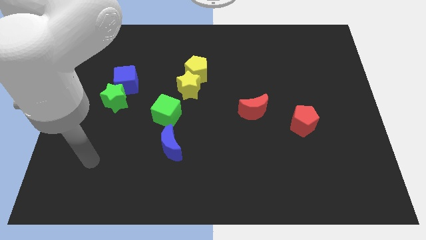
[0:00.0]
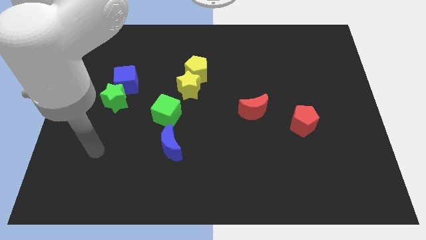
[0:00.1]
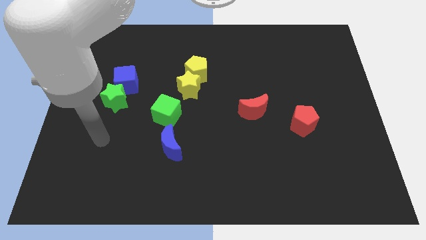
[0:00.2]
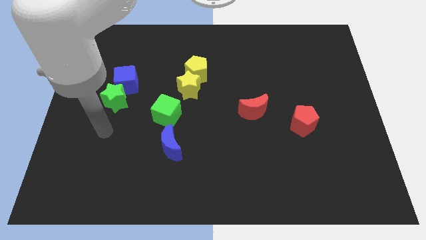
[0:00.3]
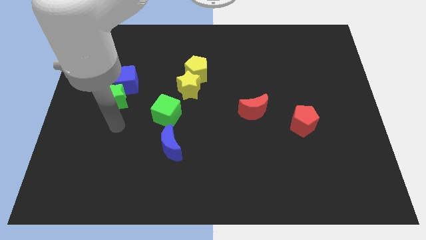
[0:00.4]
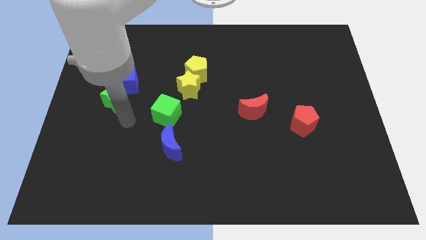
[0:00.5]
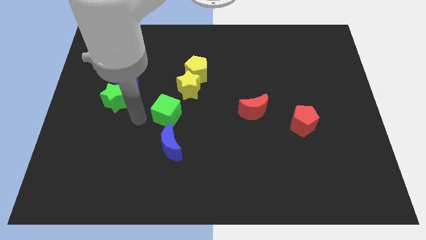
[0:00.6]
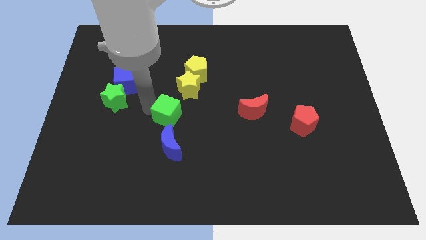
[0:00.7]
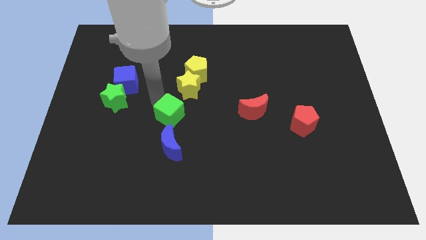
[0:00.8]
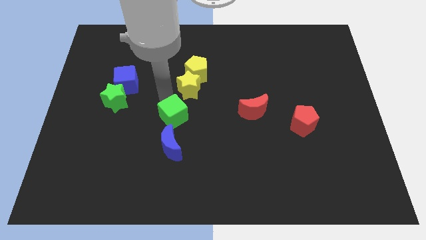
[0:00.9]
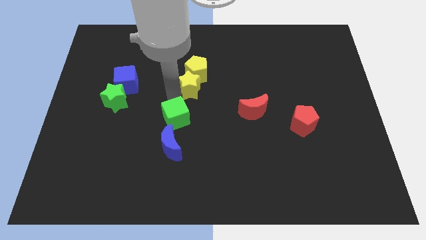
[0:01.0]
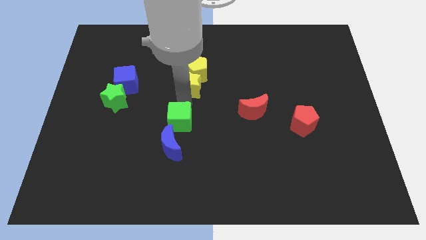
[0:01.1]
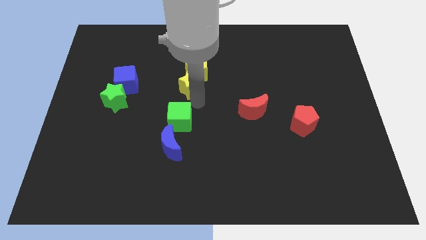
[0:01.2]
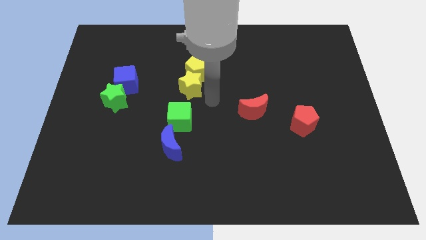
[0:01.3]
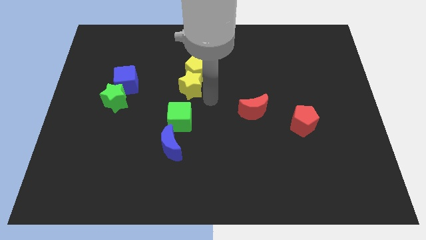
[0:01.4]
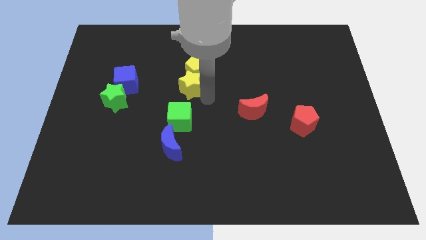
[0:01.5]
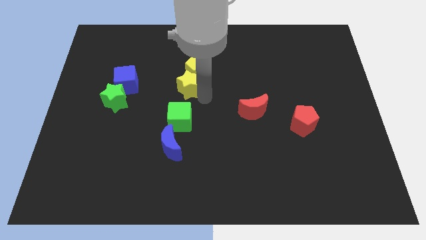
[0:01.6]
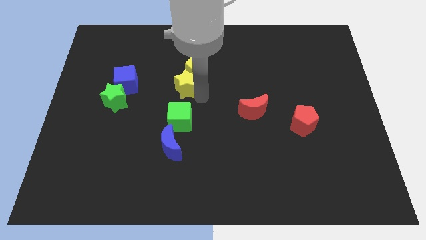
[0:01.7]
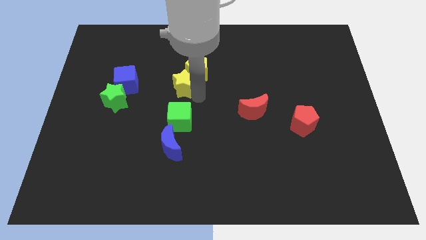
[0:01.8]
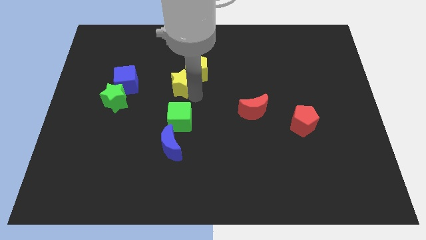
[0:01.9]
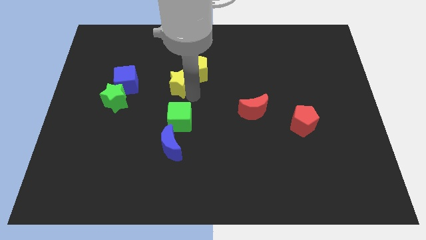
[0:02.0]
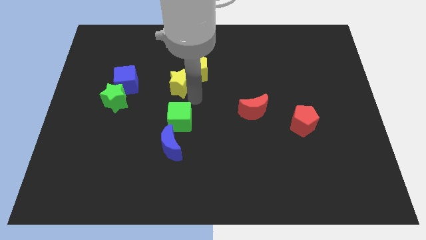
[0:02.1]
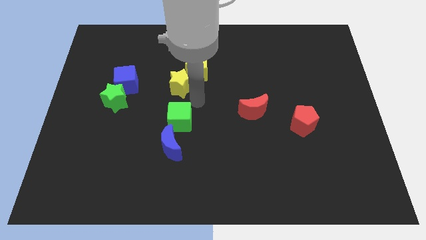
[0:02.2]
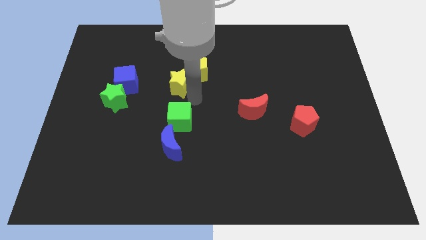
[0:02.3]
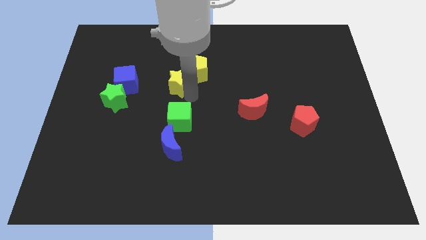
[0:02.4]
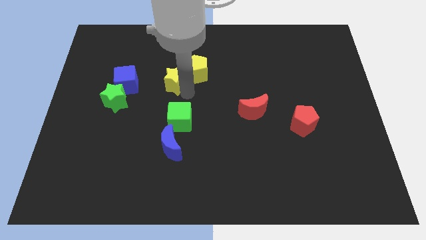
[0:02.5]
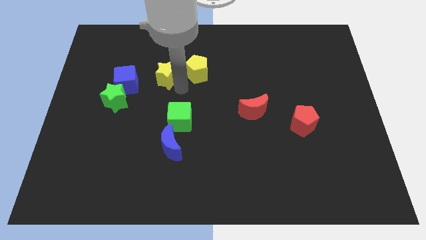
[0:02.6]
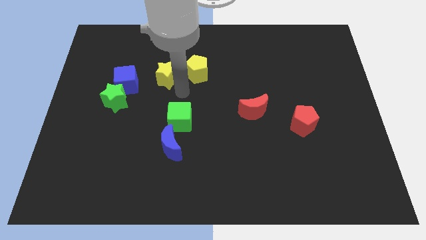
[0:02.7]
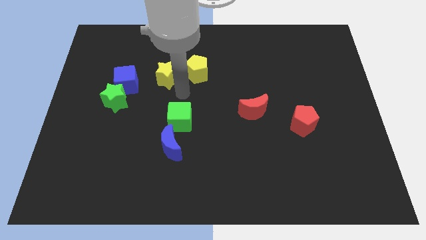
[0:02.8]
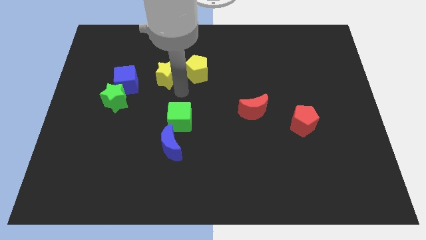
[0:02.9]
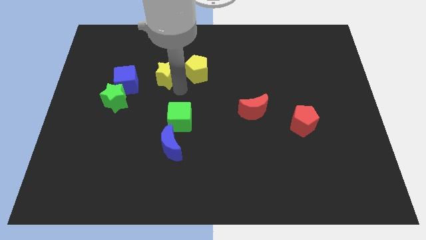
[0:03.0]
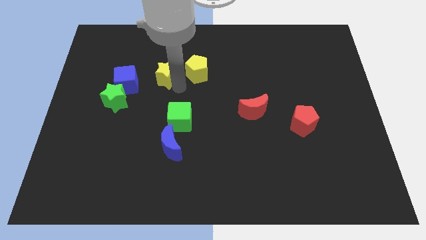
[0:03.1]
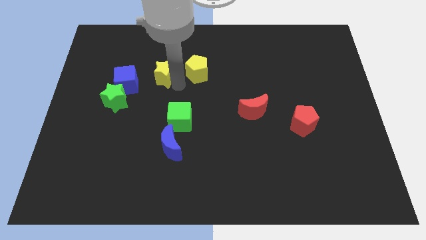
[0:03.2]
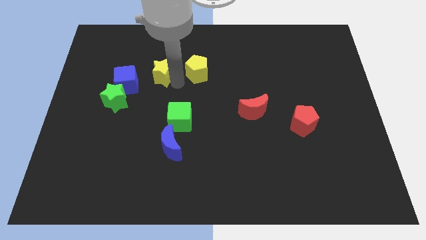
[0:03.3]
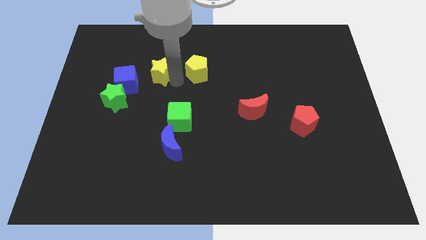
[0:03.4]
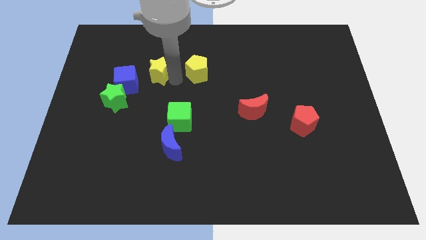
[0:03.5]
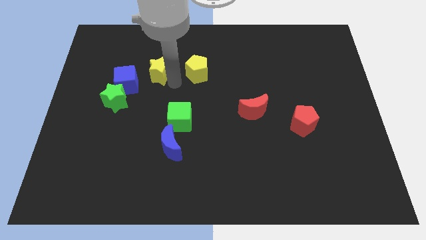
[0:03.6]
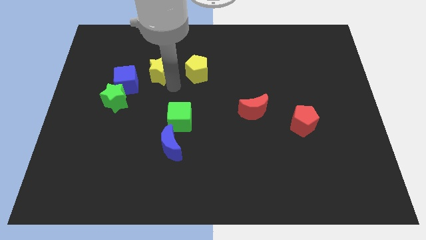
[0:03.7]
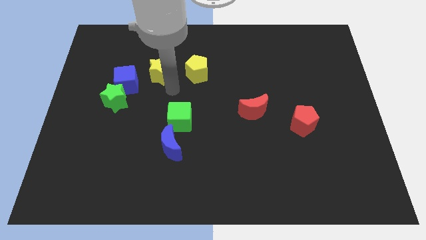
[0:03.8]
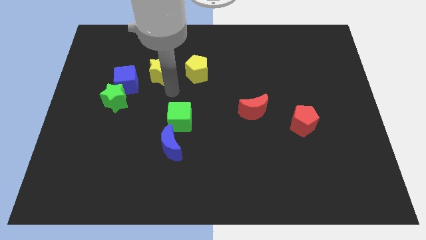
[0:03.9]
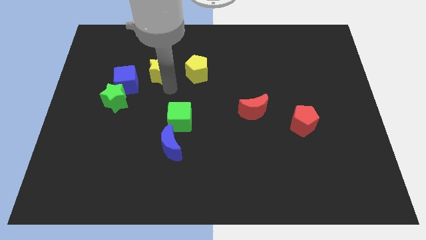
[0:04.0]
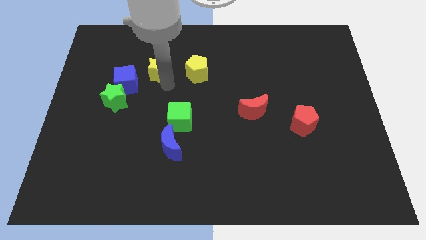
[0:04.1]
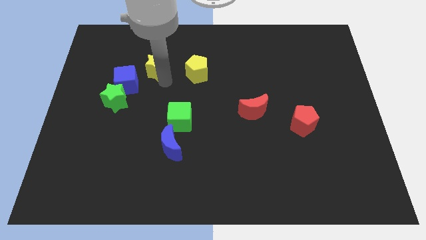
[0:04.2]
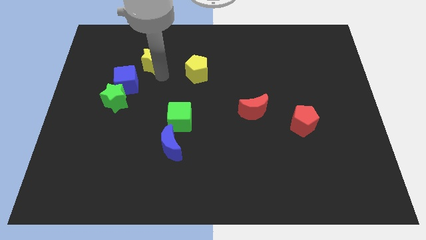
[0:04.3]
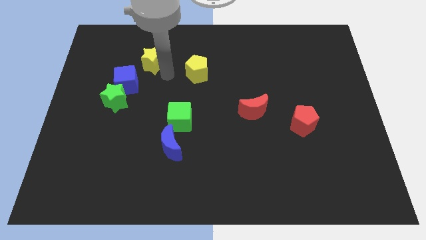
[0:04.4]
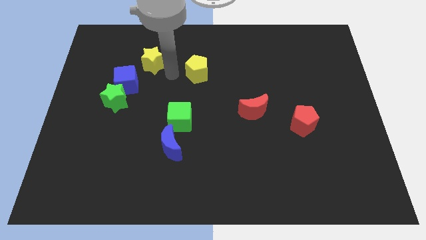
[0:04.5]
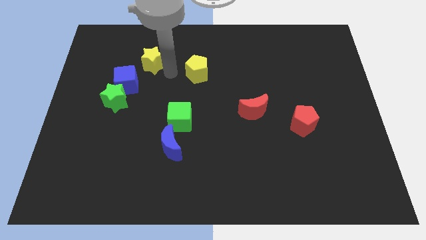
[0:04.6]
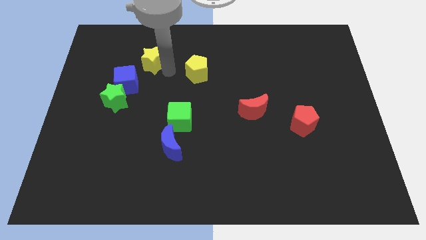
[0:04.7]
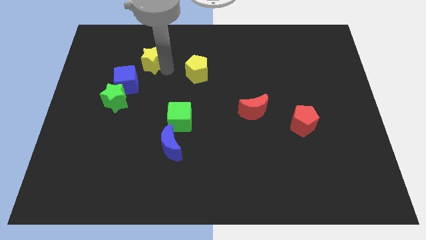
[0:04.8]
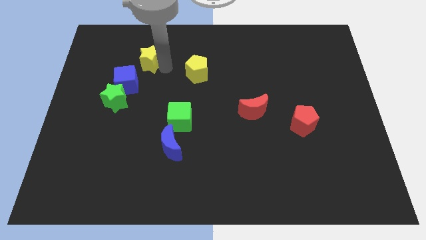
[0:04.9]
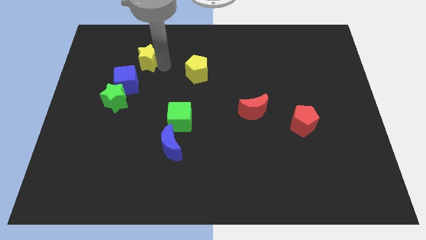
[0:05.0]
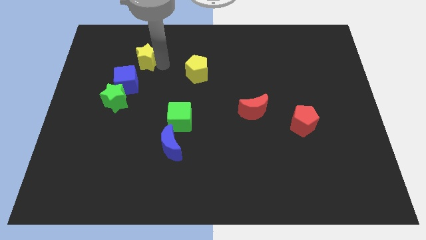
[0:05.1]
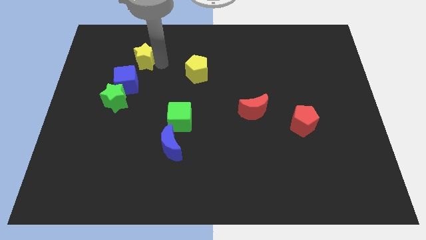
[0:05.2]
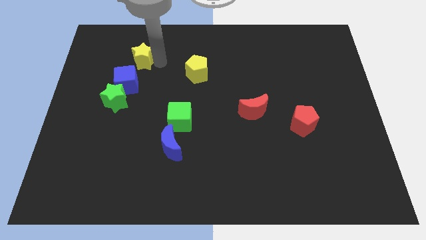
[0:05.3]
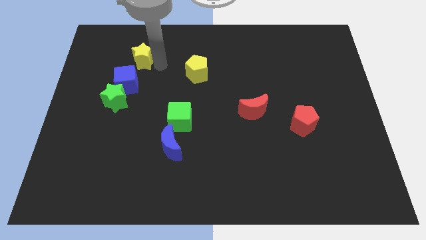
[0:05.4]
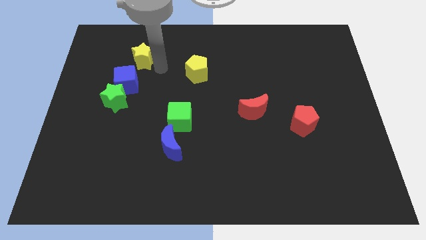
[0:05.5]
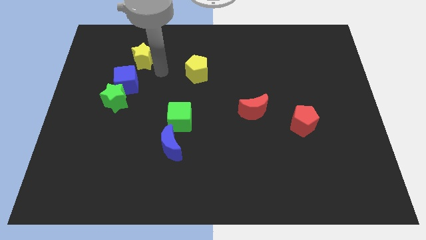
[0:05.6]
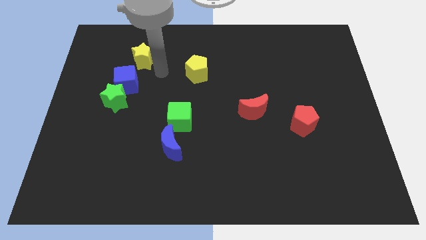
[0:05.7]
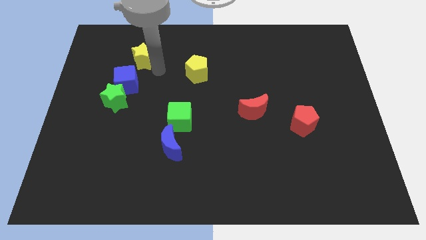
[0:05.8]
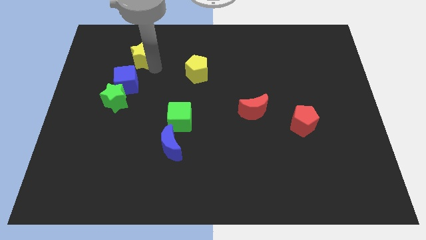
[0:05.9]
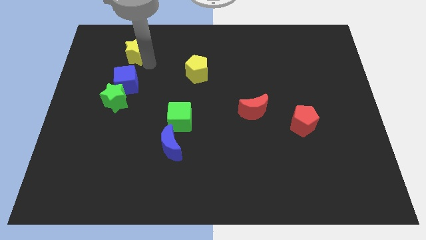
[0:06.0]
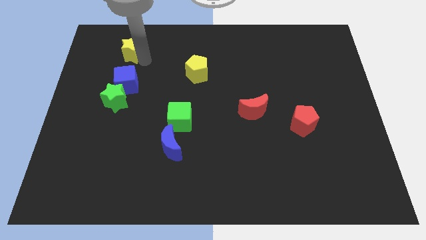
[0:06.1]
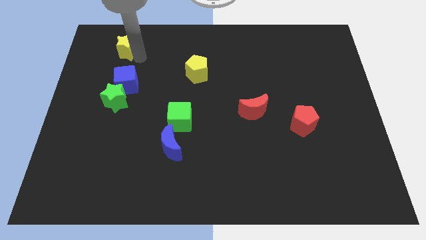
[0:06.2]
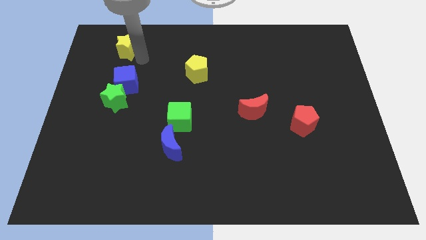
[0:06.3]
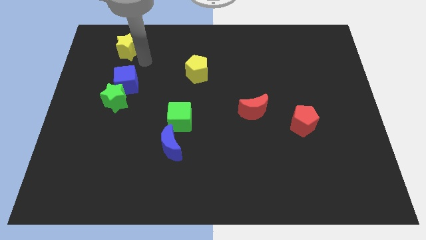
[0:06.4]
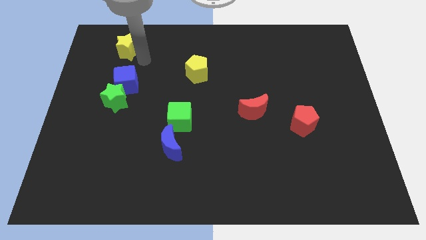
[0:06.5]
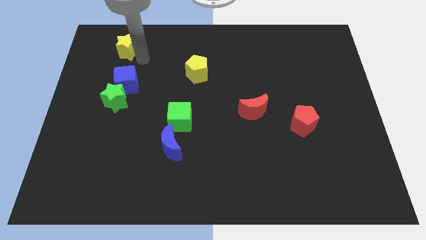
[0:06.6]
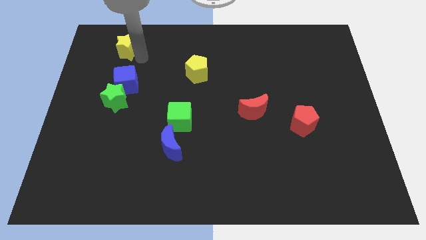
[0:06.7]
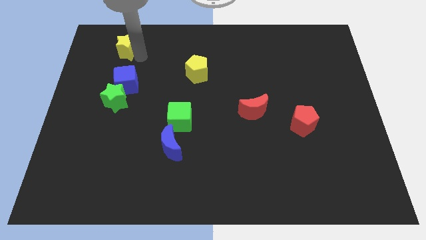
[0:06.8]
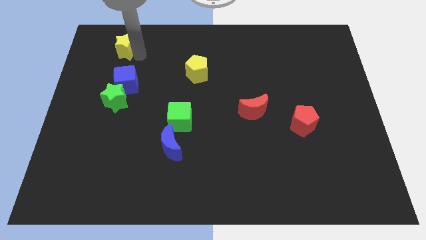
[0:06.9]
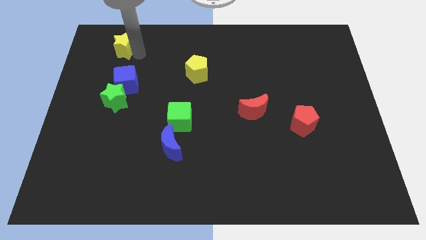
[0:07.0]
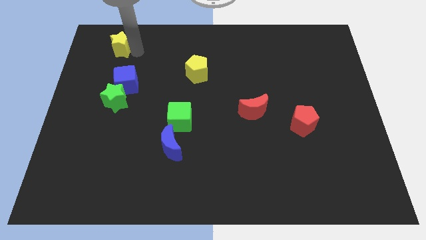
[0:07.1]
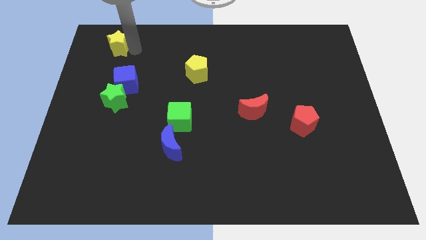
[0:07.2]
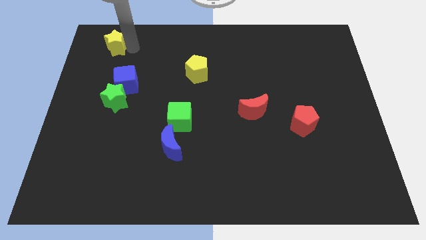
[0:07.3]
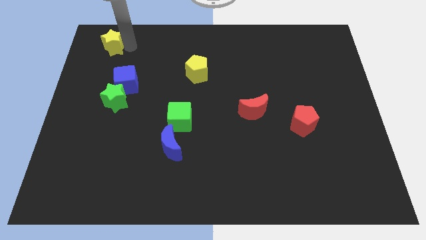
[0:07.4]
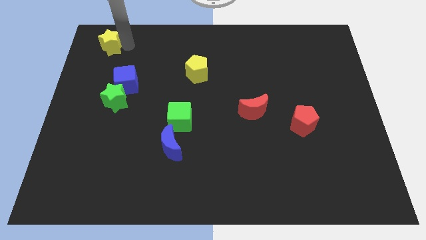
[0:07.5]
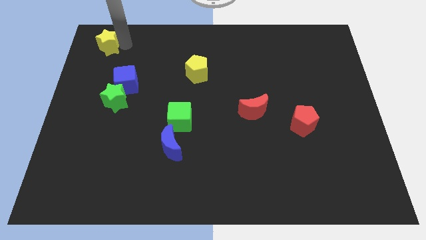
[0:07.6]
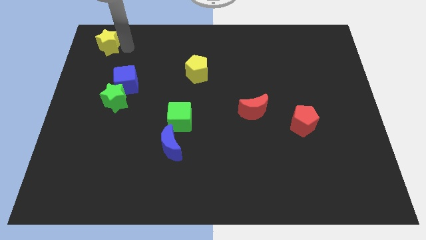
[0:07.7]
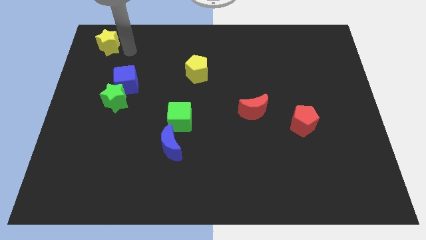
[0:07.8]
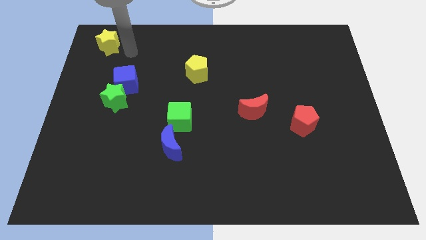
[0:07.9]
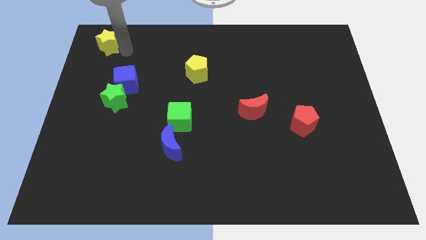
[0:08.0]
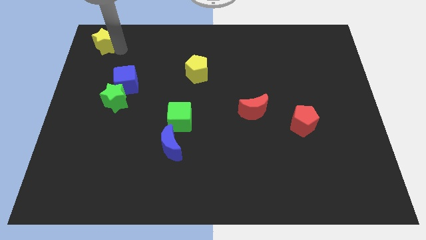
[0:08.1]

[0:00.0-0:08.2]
put the yellow star to the top left of the board
